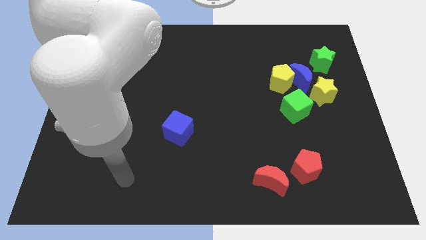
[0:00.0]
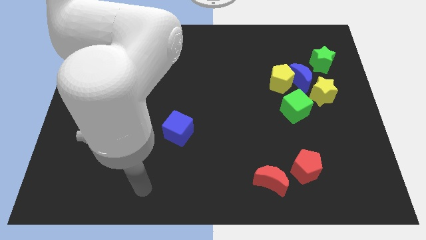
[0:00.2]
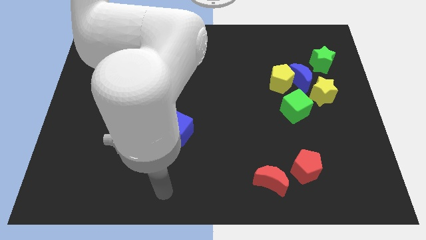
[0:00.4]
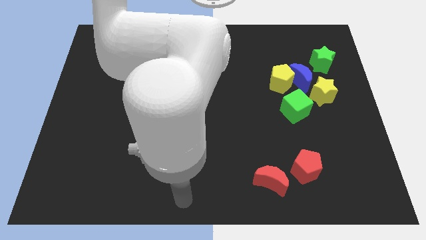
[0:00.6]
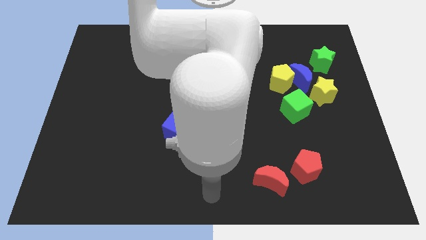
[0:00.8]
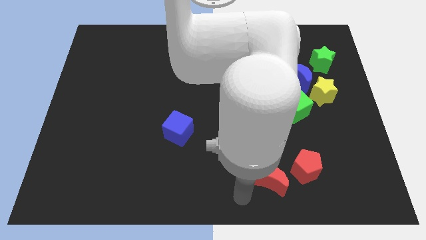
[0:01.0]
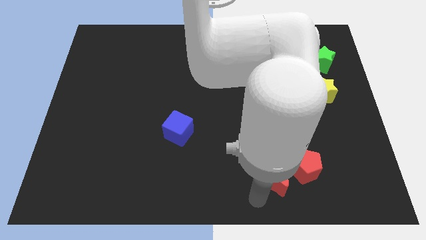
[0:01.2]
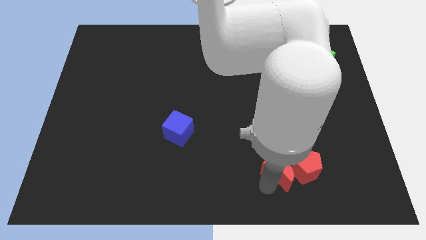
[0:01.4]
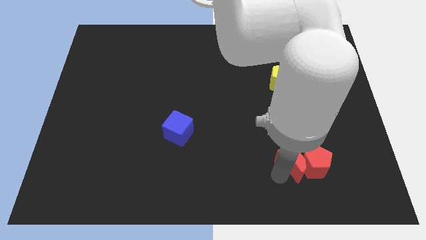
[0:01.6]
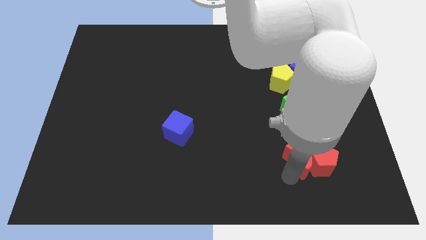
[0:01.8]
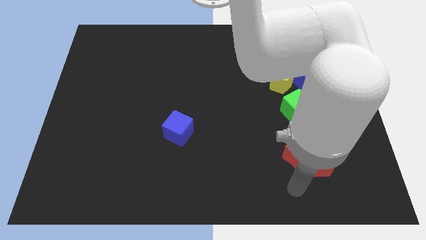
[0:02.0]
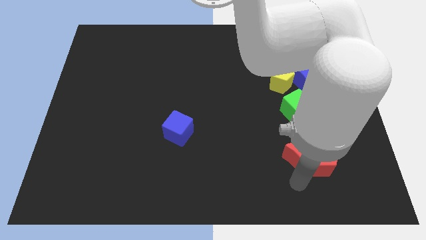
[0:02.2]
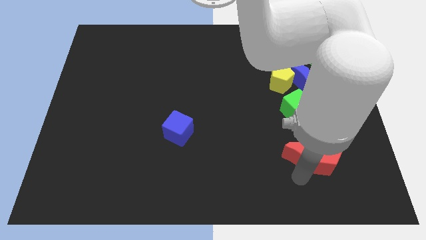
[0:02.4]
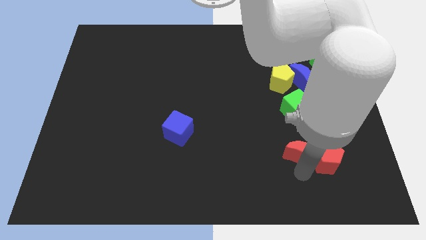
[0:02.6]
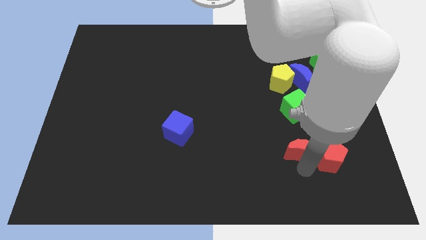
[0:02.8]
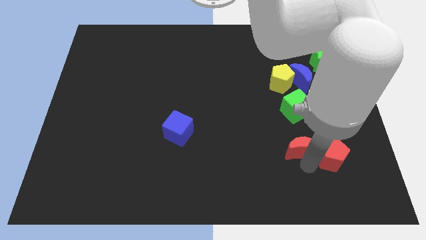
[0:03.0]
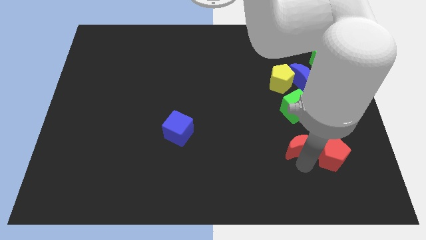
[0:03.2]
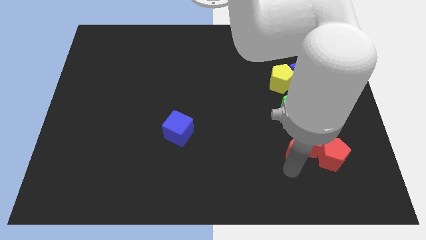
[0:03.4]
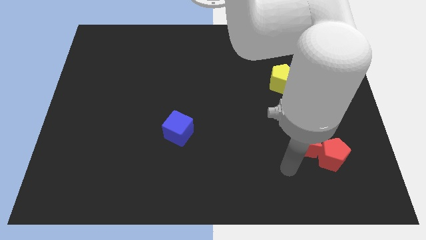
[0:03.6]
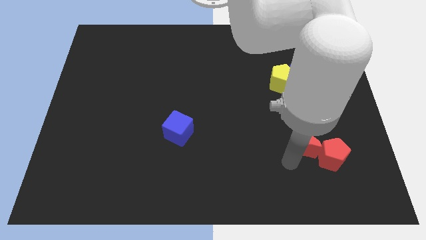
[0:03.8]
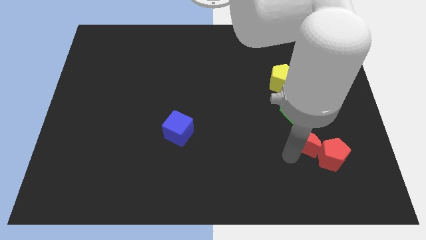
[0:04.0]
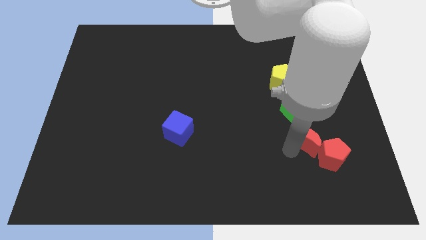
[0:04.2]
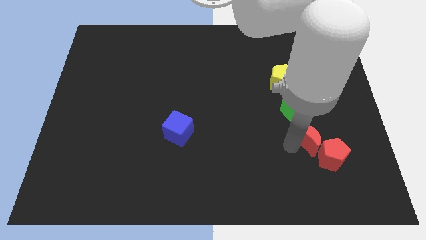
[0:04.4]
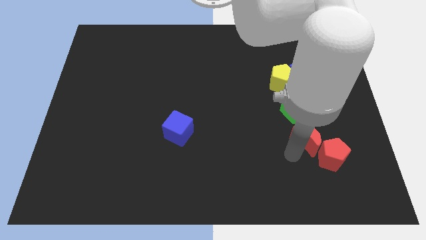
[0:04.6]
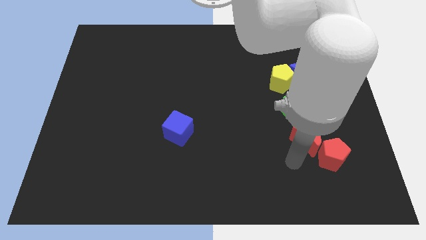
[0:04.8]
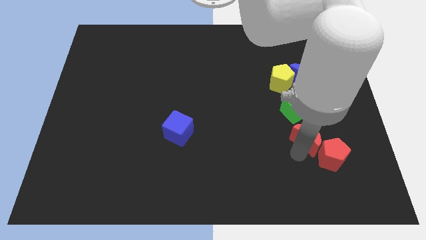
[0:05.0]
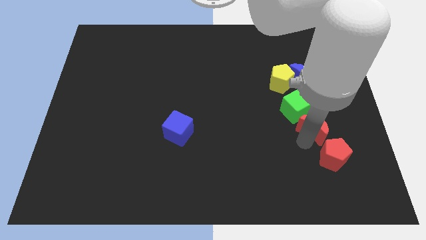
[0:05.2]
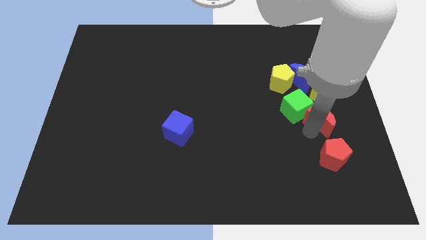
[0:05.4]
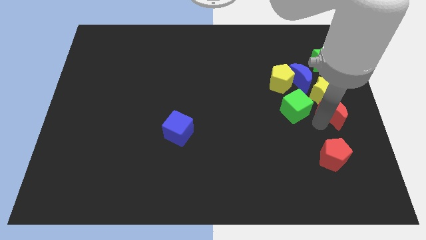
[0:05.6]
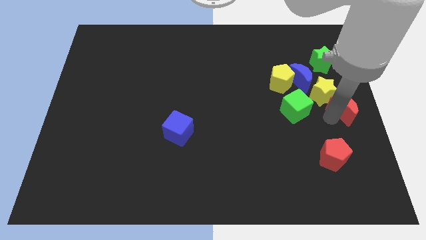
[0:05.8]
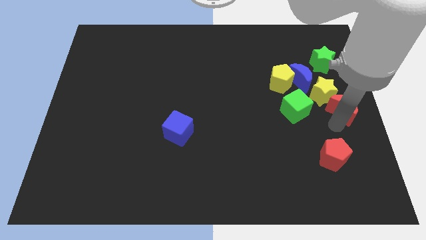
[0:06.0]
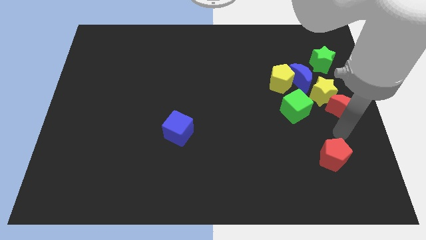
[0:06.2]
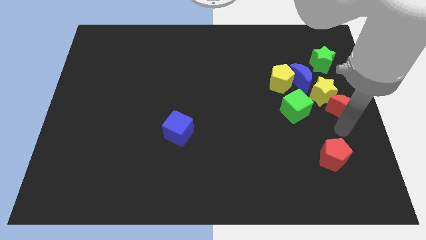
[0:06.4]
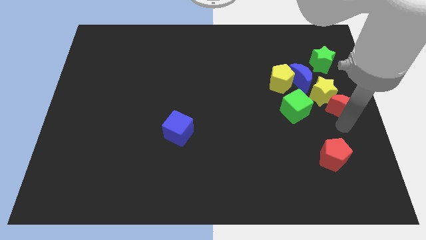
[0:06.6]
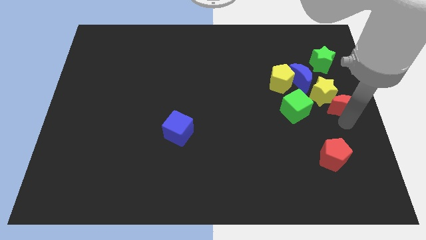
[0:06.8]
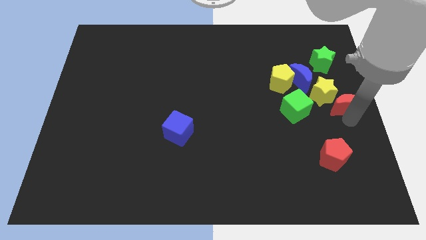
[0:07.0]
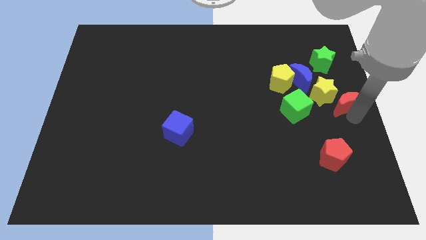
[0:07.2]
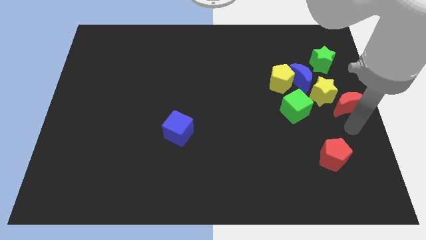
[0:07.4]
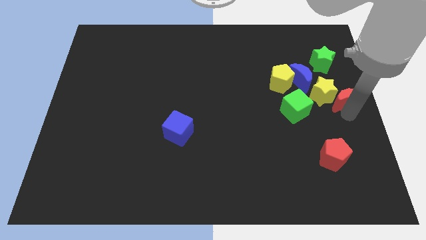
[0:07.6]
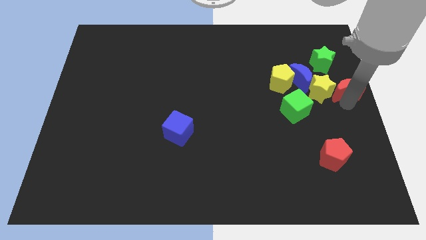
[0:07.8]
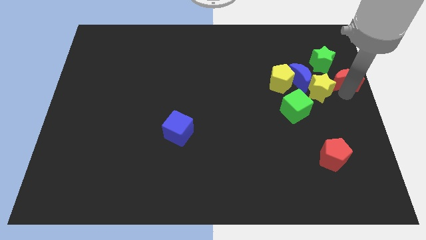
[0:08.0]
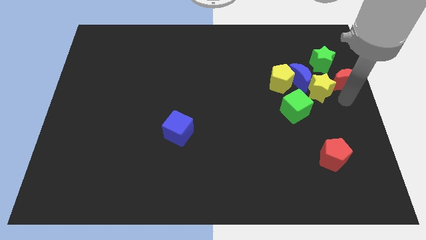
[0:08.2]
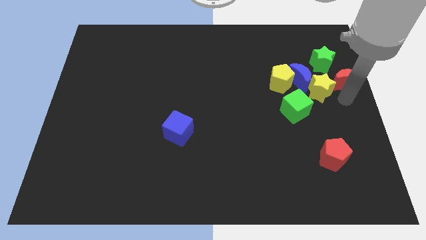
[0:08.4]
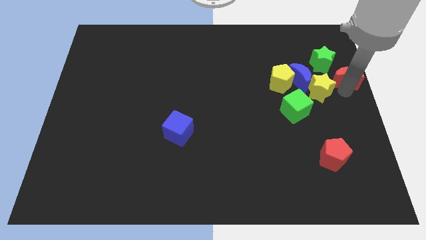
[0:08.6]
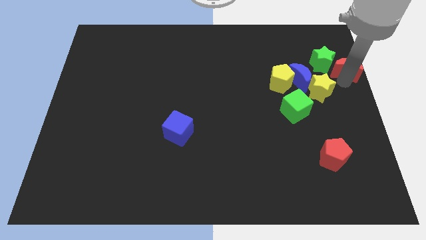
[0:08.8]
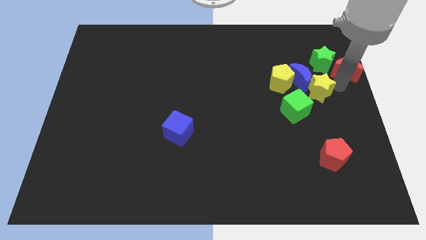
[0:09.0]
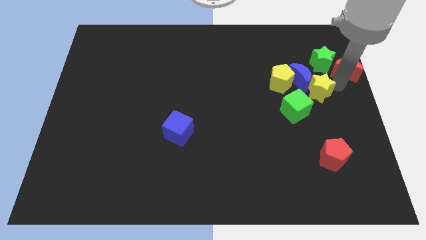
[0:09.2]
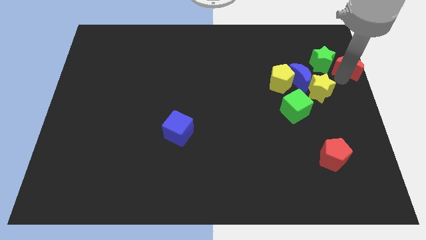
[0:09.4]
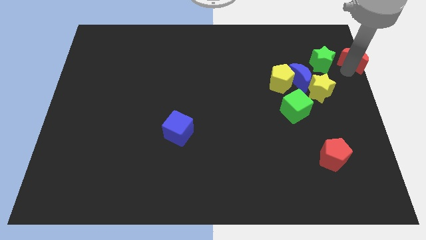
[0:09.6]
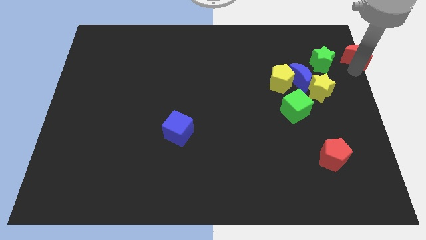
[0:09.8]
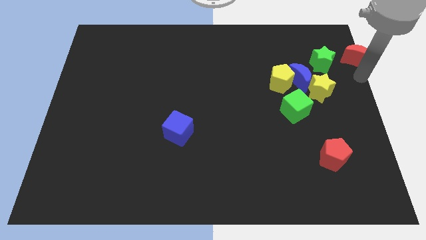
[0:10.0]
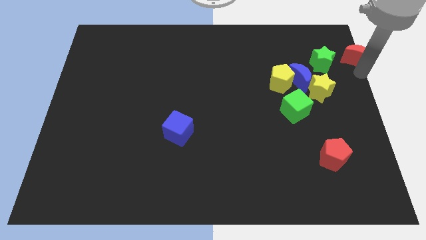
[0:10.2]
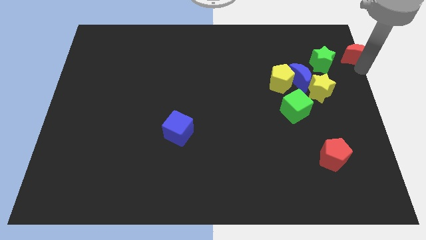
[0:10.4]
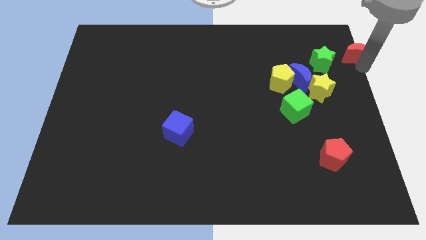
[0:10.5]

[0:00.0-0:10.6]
slide the red moon to the top right
